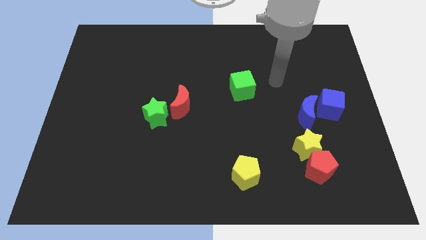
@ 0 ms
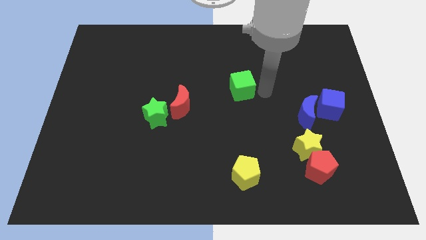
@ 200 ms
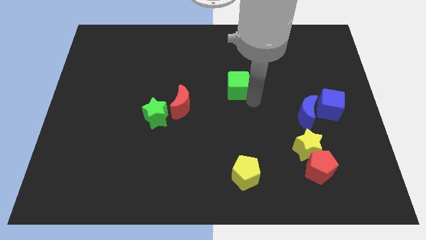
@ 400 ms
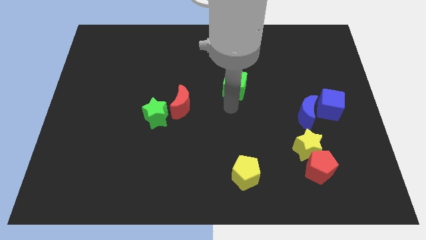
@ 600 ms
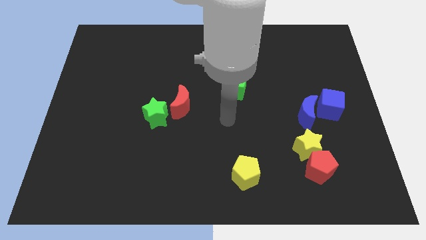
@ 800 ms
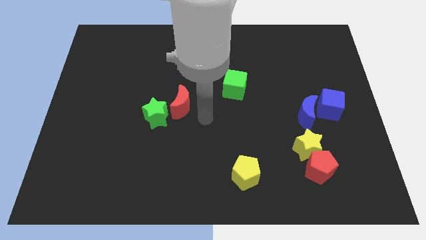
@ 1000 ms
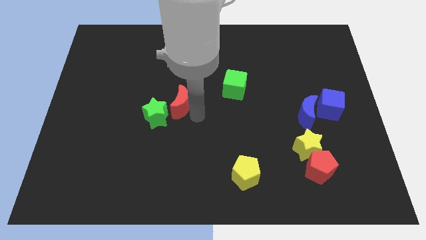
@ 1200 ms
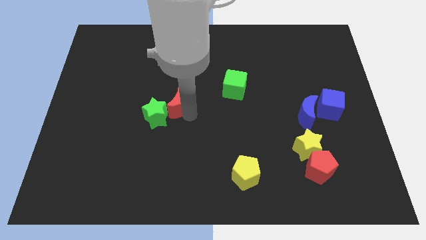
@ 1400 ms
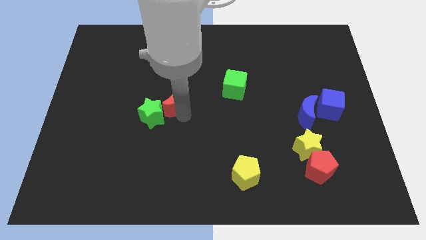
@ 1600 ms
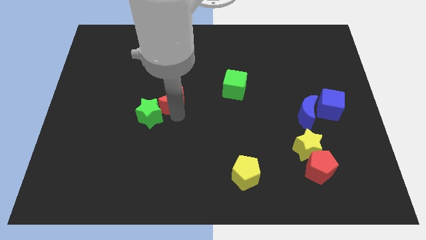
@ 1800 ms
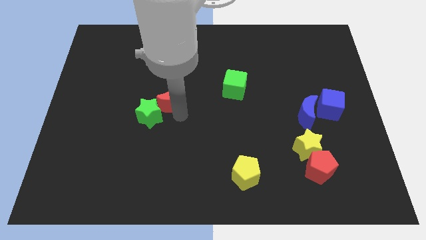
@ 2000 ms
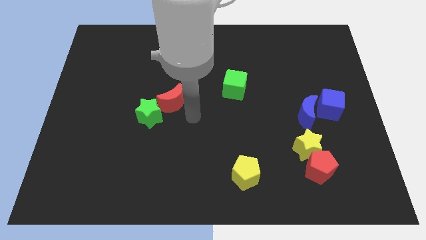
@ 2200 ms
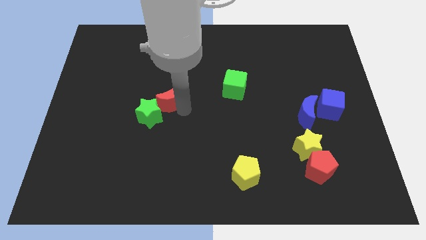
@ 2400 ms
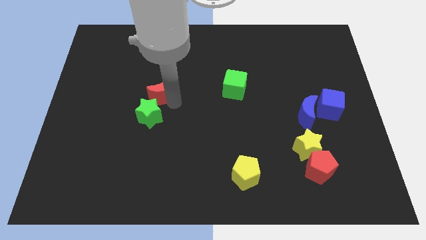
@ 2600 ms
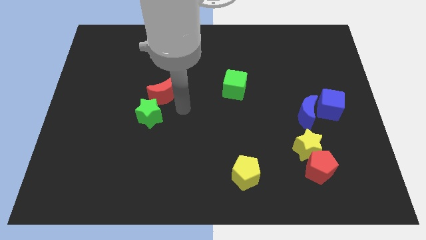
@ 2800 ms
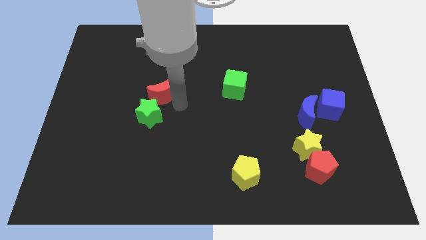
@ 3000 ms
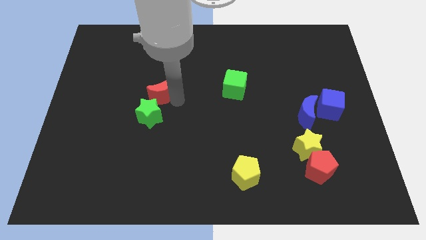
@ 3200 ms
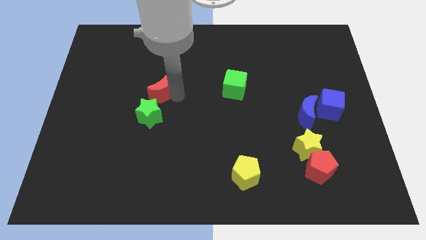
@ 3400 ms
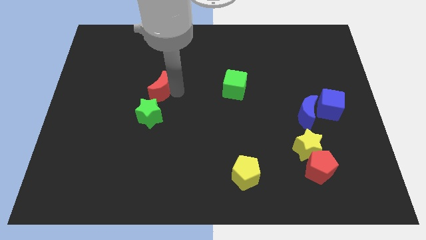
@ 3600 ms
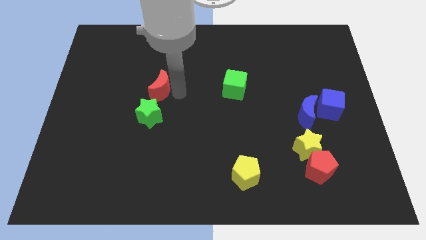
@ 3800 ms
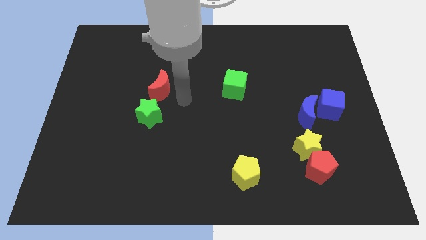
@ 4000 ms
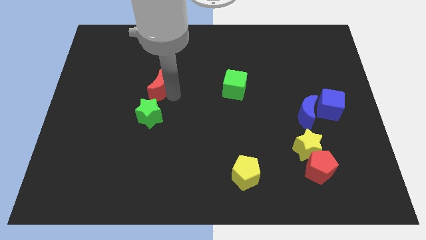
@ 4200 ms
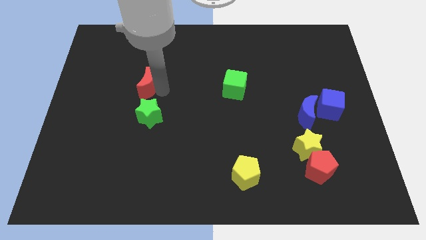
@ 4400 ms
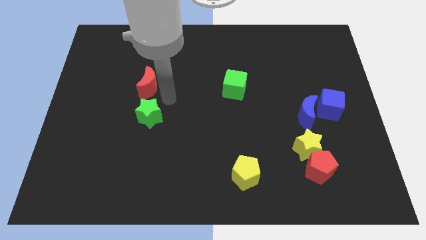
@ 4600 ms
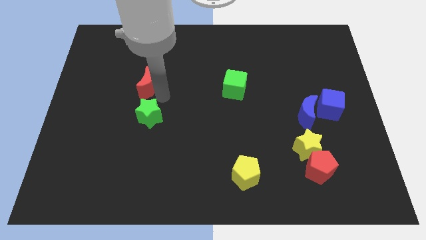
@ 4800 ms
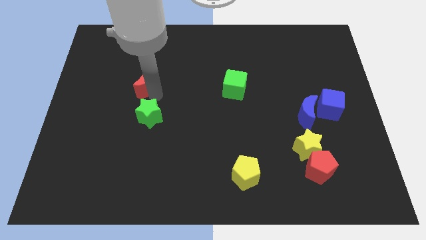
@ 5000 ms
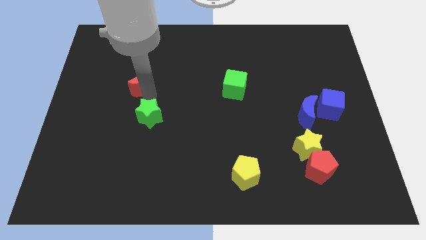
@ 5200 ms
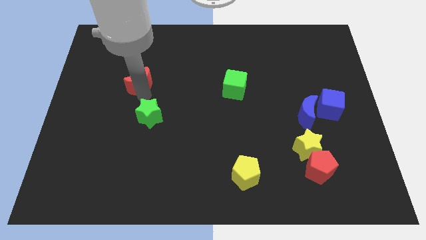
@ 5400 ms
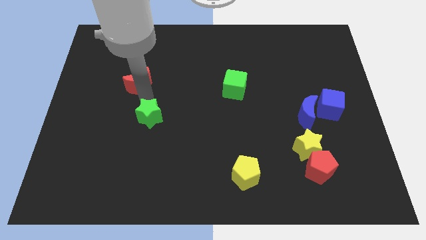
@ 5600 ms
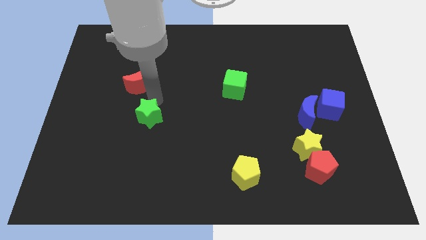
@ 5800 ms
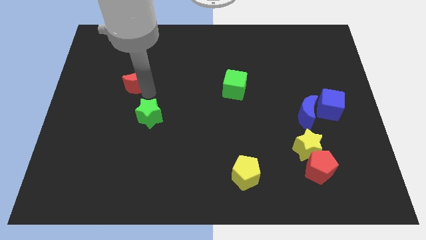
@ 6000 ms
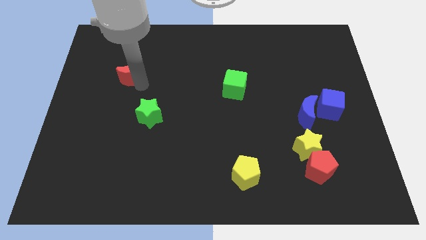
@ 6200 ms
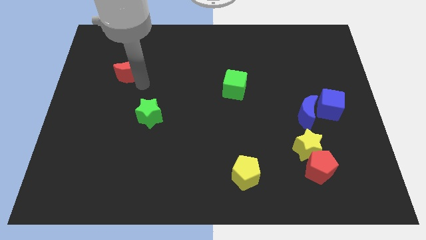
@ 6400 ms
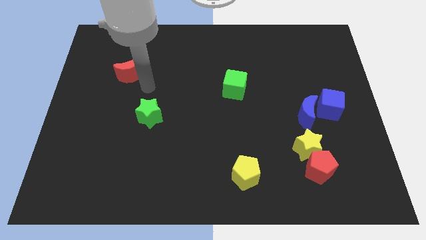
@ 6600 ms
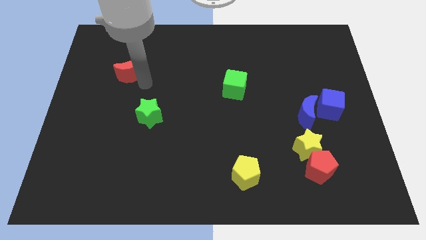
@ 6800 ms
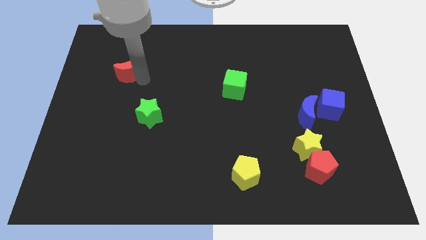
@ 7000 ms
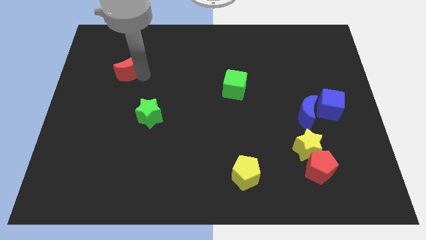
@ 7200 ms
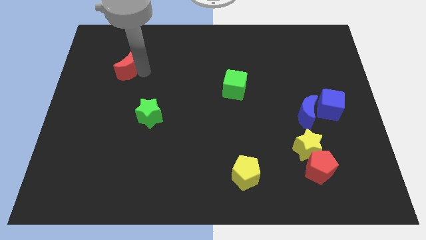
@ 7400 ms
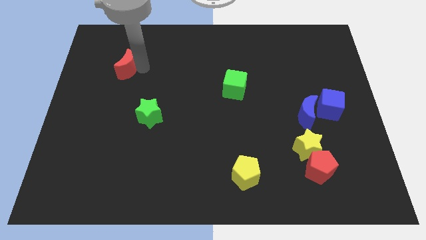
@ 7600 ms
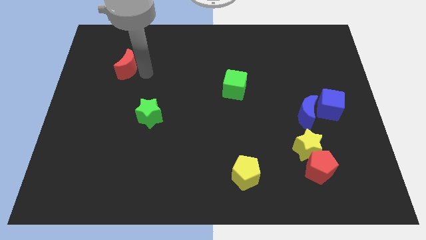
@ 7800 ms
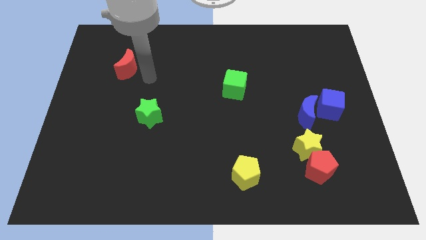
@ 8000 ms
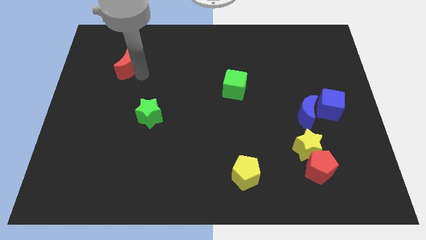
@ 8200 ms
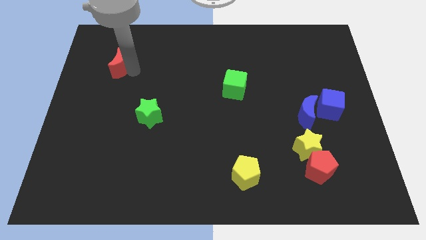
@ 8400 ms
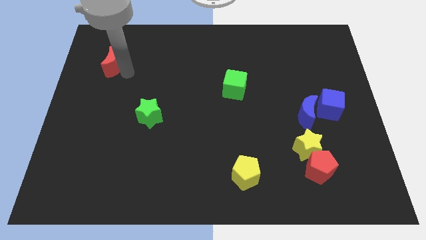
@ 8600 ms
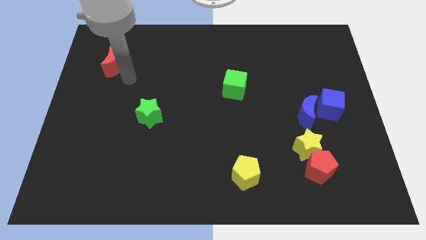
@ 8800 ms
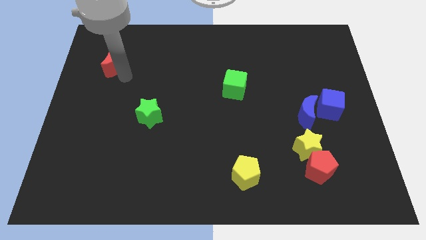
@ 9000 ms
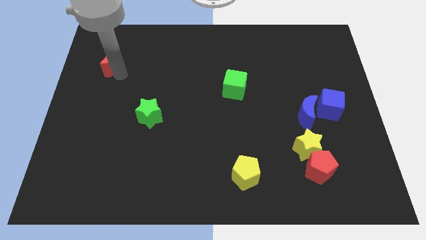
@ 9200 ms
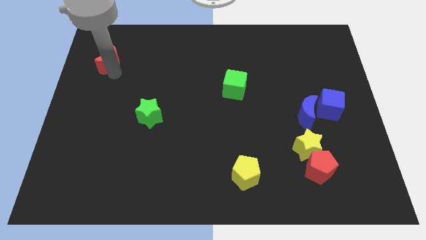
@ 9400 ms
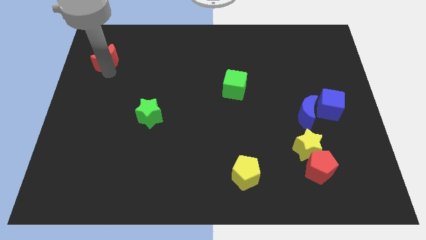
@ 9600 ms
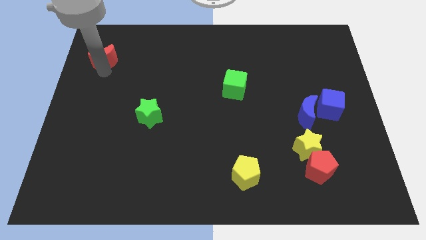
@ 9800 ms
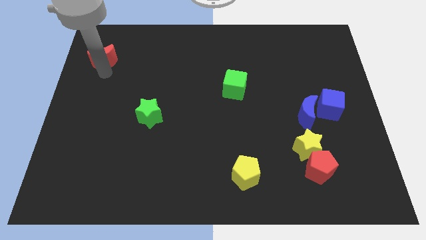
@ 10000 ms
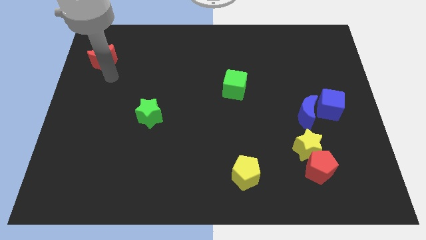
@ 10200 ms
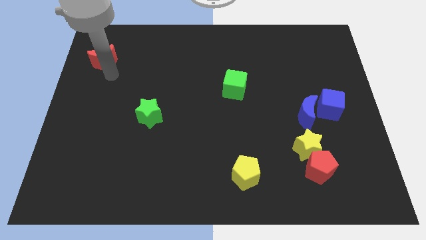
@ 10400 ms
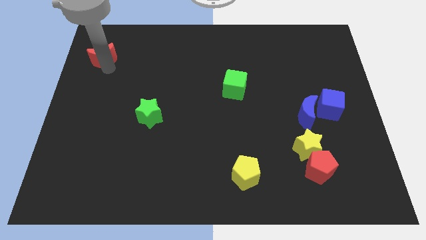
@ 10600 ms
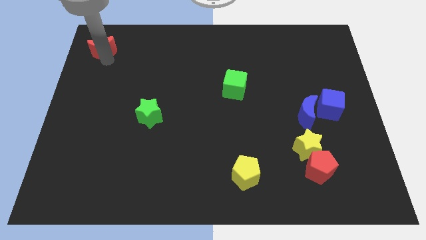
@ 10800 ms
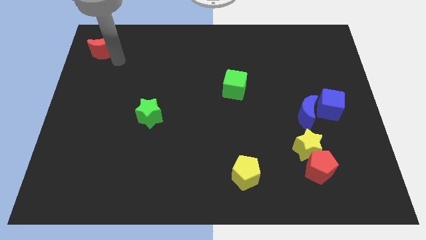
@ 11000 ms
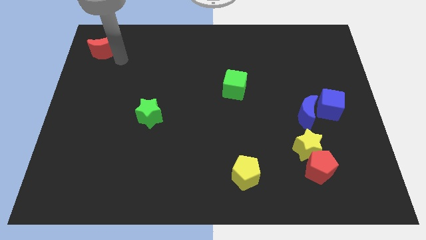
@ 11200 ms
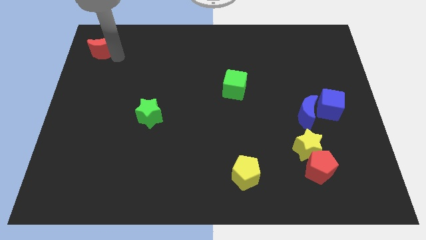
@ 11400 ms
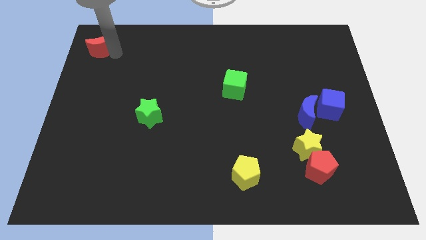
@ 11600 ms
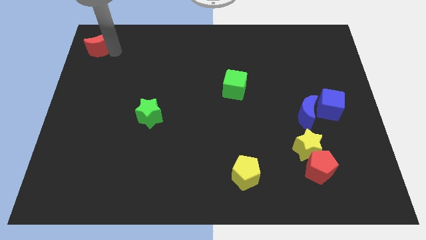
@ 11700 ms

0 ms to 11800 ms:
put the red moon to the top left of the board
